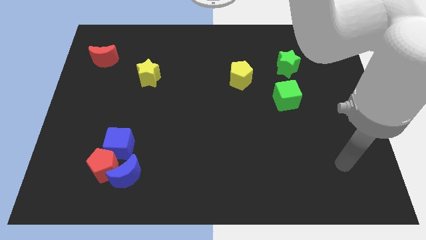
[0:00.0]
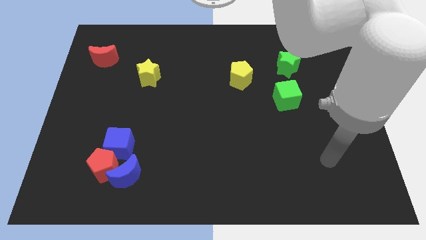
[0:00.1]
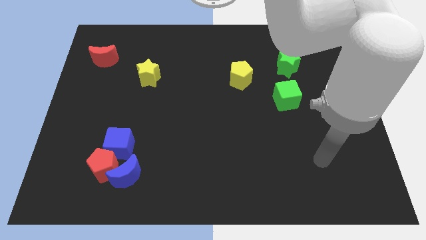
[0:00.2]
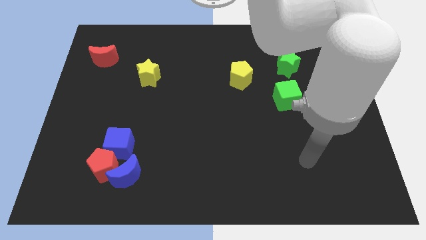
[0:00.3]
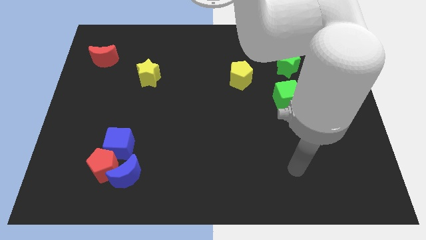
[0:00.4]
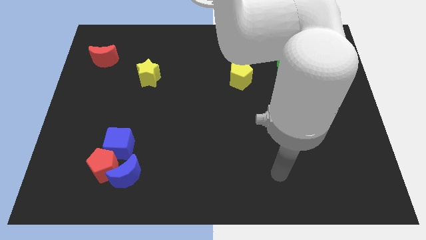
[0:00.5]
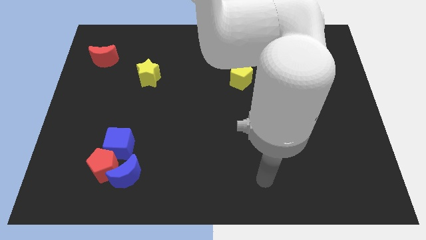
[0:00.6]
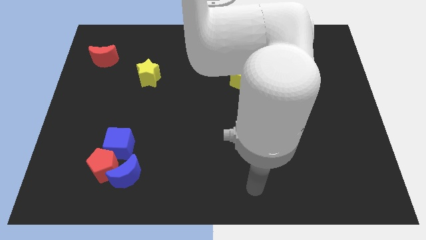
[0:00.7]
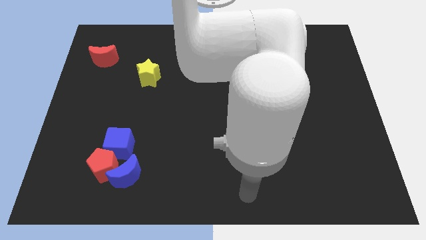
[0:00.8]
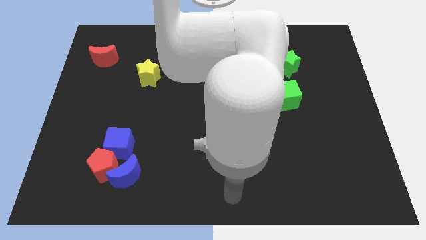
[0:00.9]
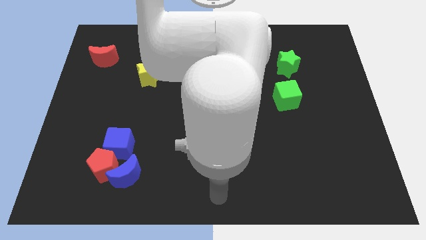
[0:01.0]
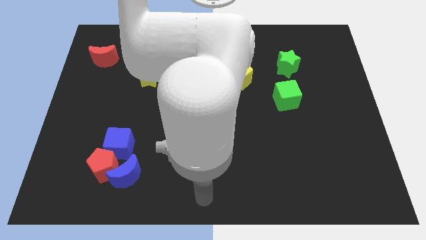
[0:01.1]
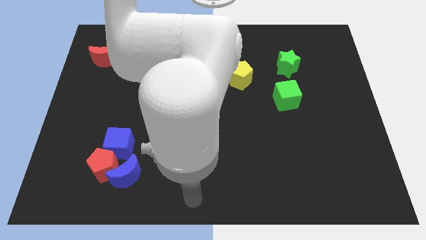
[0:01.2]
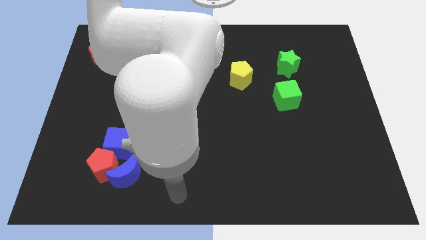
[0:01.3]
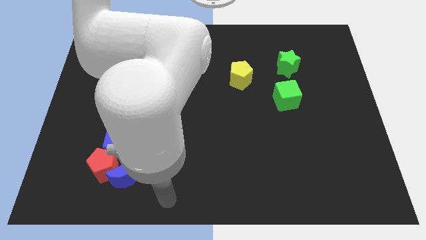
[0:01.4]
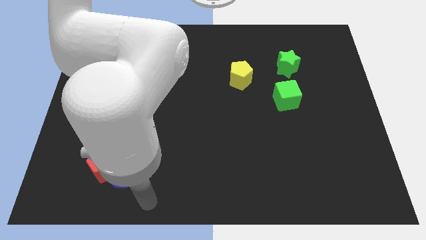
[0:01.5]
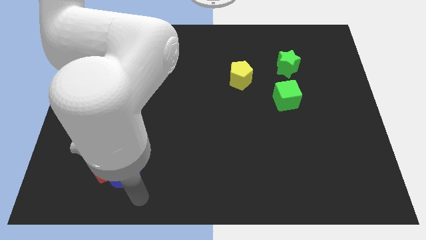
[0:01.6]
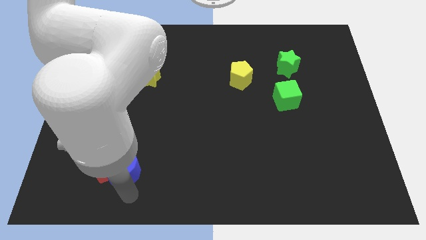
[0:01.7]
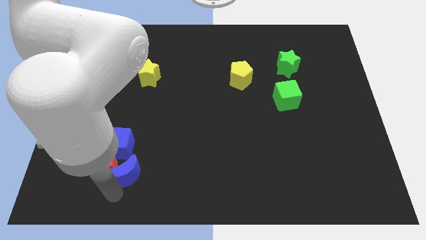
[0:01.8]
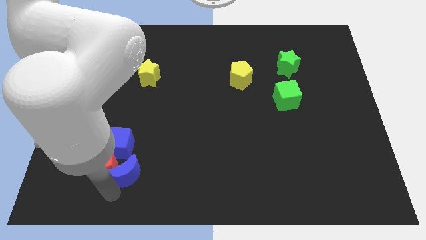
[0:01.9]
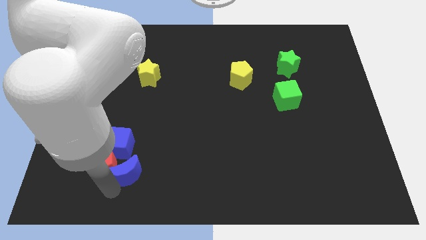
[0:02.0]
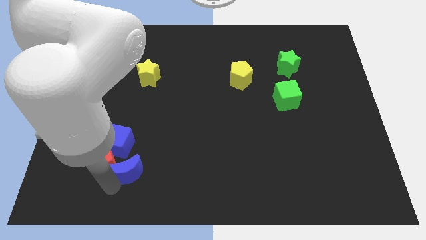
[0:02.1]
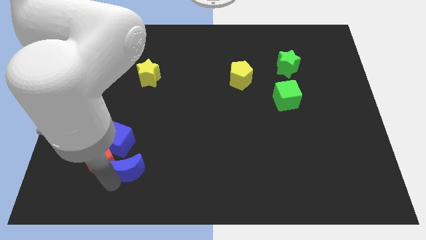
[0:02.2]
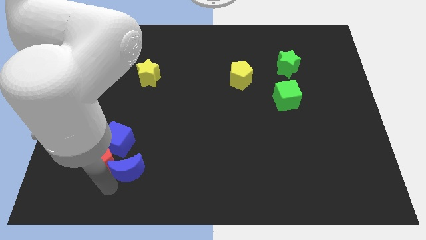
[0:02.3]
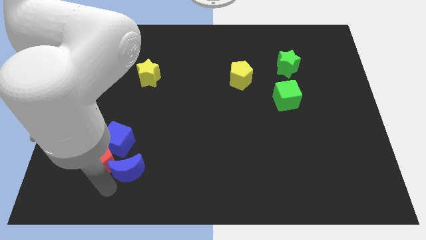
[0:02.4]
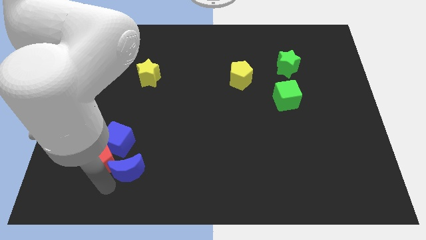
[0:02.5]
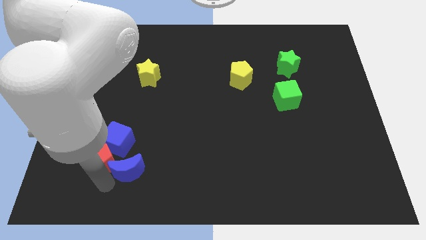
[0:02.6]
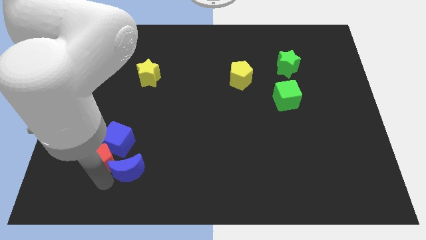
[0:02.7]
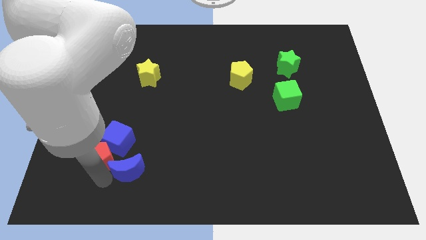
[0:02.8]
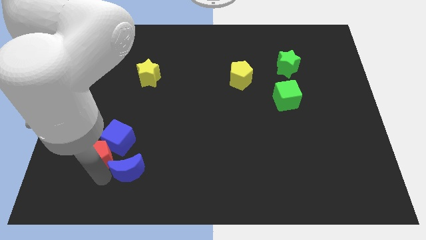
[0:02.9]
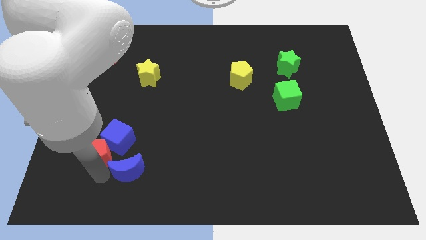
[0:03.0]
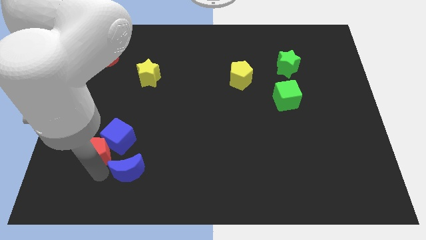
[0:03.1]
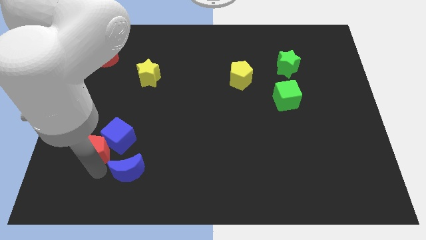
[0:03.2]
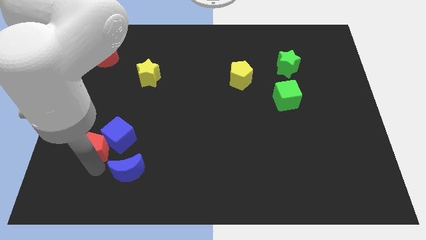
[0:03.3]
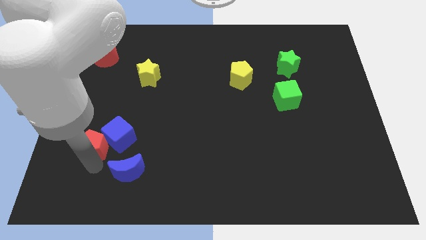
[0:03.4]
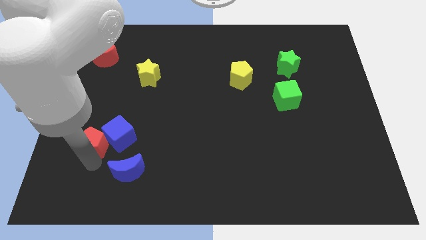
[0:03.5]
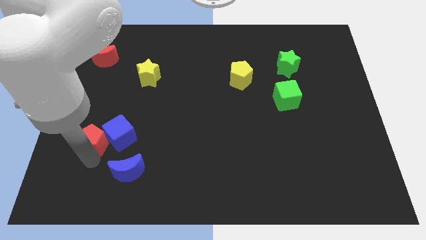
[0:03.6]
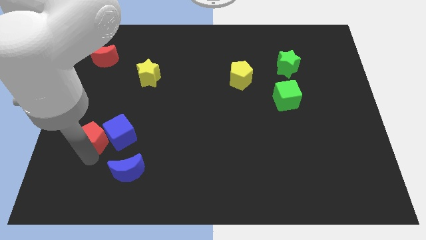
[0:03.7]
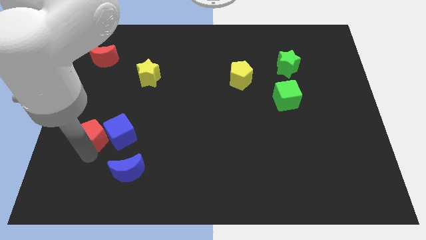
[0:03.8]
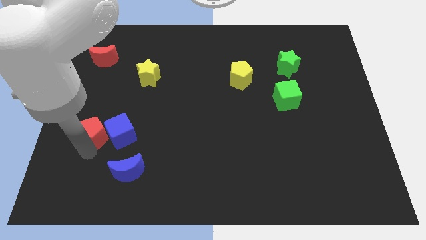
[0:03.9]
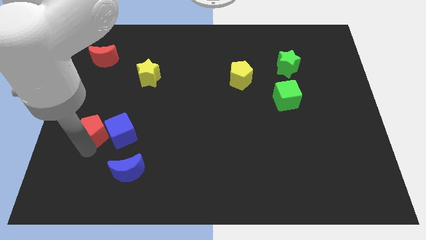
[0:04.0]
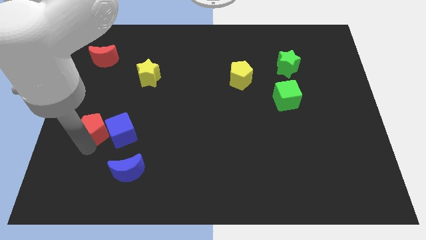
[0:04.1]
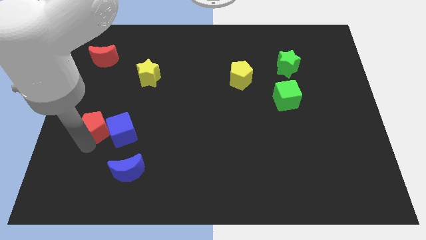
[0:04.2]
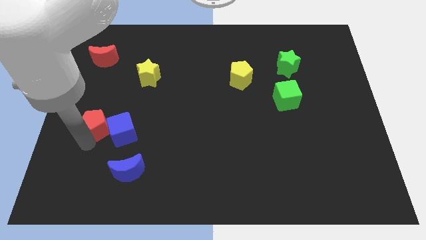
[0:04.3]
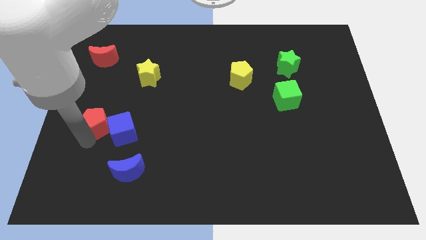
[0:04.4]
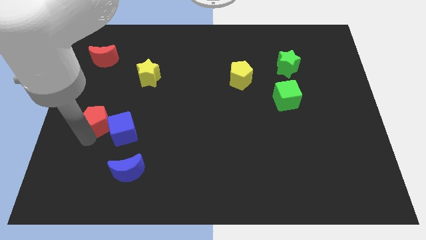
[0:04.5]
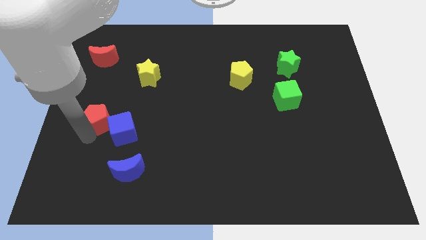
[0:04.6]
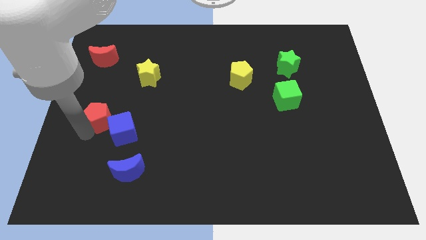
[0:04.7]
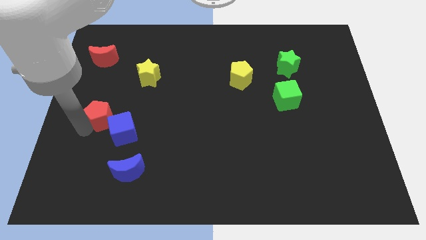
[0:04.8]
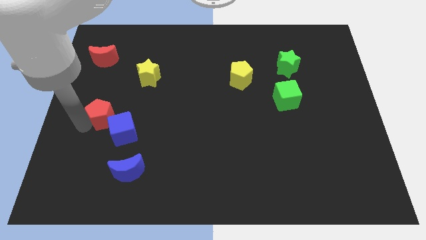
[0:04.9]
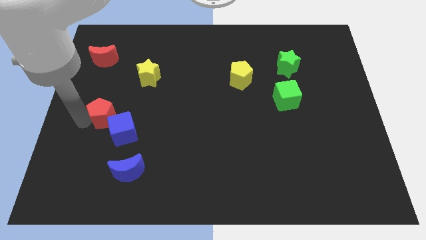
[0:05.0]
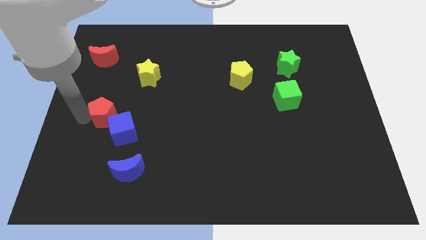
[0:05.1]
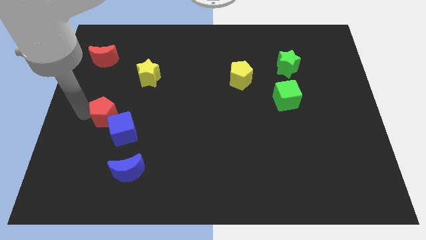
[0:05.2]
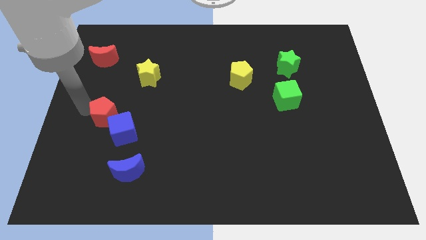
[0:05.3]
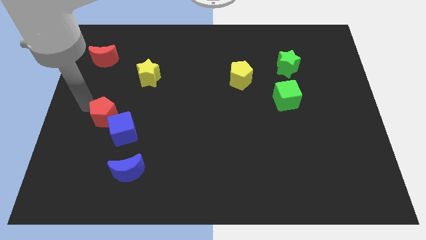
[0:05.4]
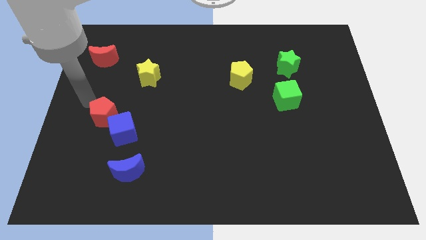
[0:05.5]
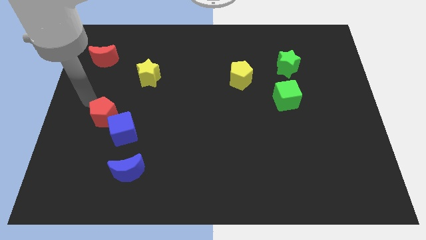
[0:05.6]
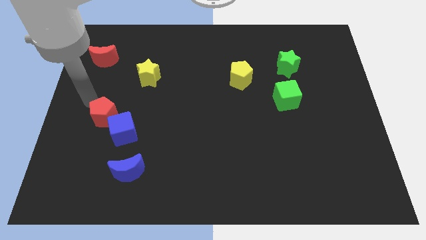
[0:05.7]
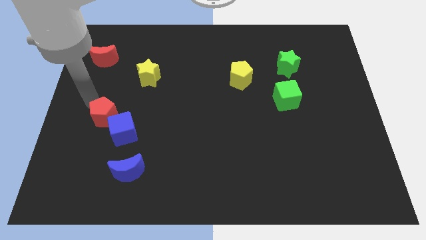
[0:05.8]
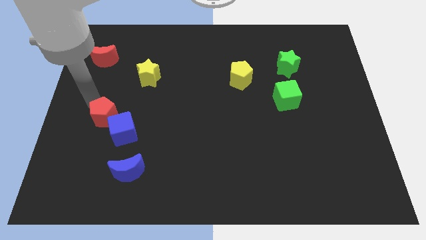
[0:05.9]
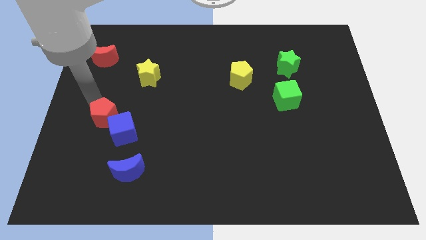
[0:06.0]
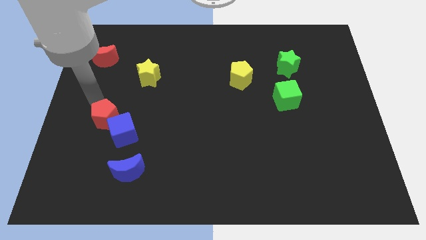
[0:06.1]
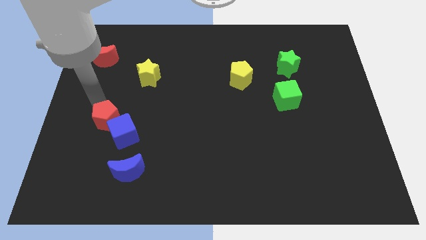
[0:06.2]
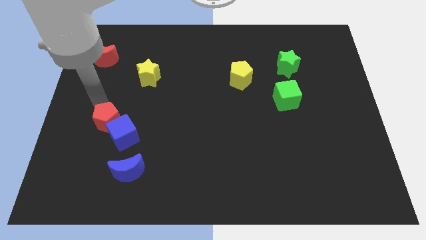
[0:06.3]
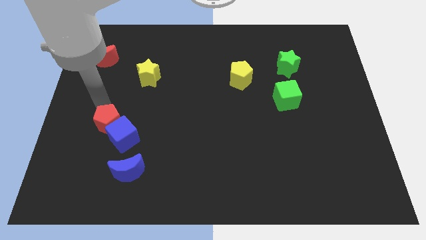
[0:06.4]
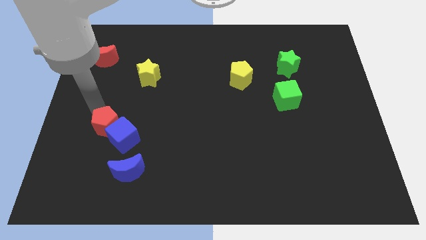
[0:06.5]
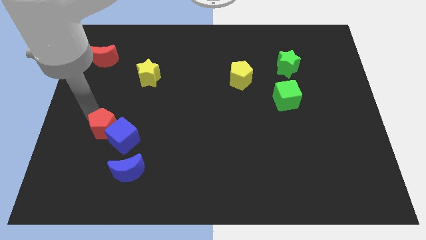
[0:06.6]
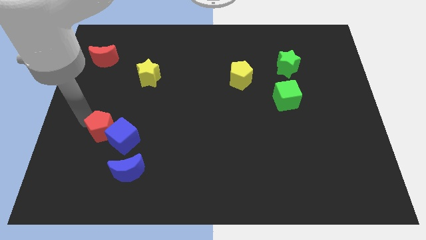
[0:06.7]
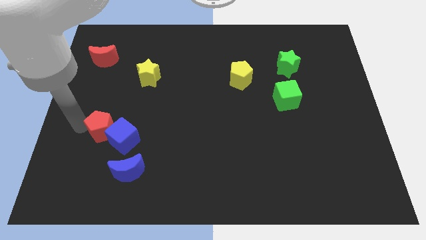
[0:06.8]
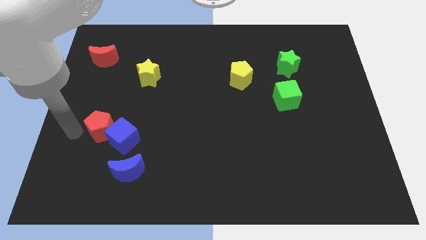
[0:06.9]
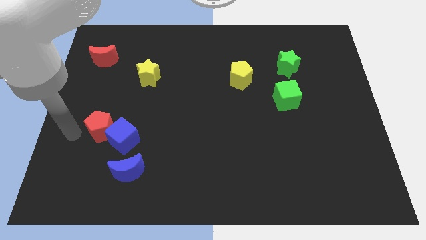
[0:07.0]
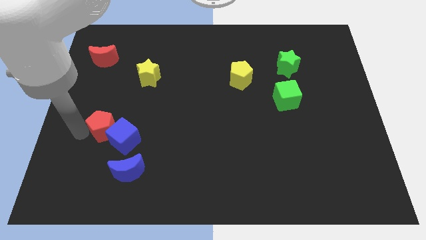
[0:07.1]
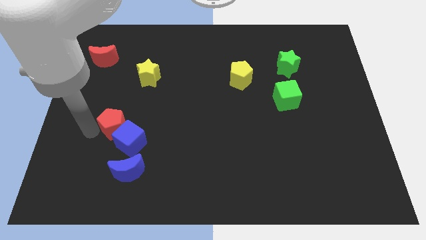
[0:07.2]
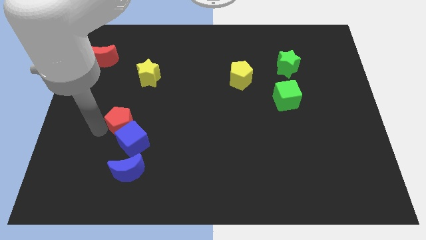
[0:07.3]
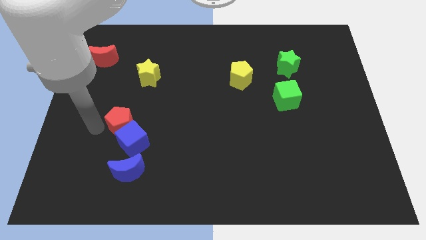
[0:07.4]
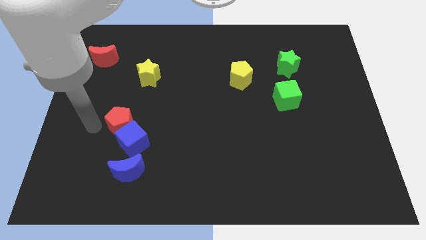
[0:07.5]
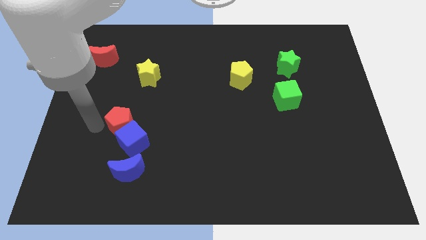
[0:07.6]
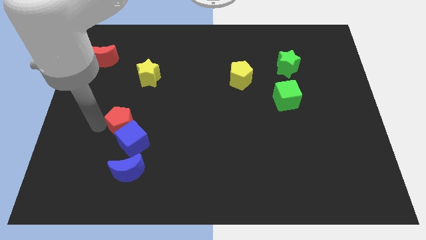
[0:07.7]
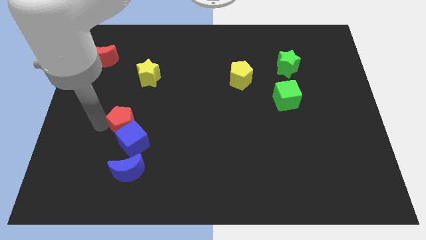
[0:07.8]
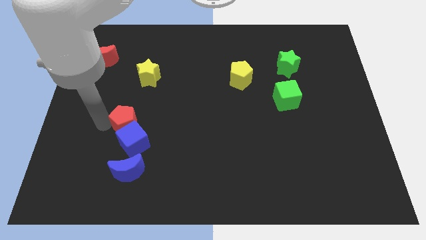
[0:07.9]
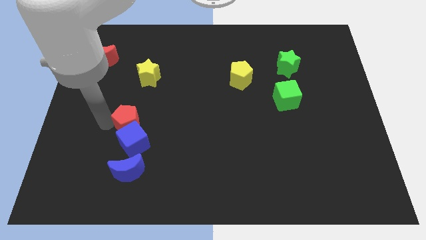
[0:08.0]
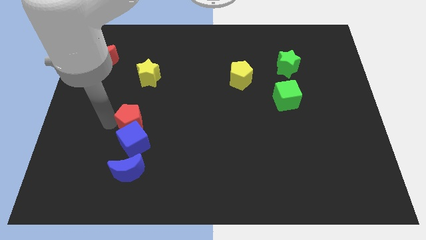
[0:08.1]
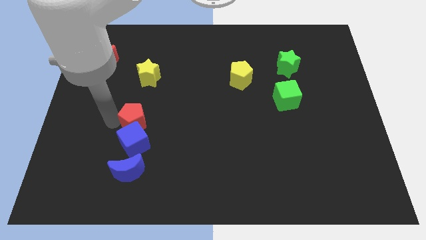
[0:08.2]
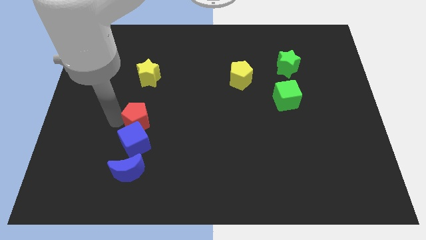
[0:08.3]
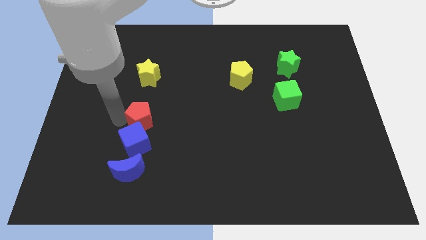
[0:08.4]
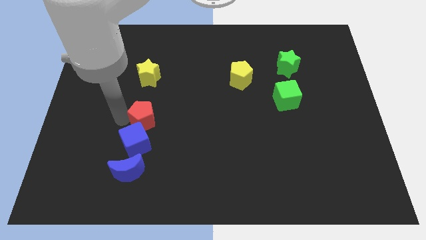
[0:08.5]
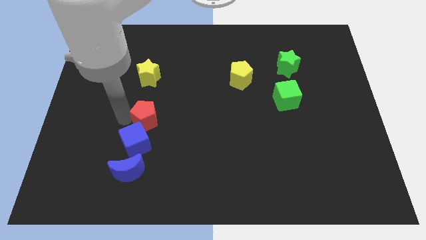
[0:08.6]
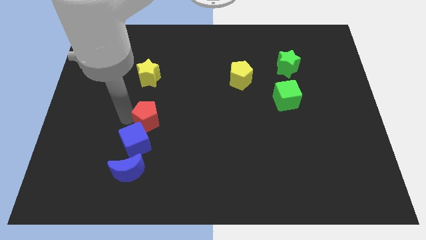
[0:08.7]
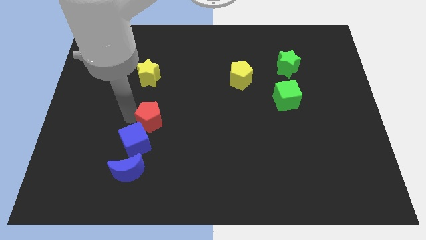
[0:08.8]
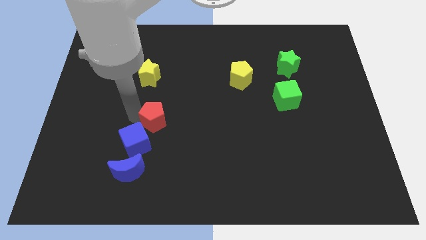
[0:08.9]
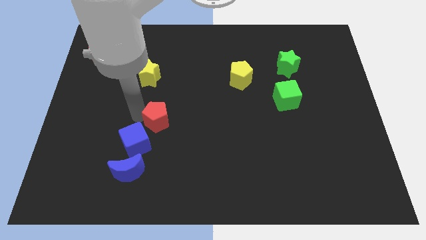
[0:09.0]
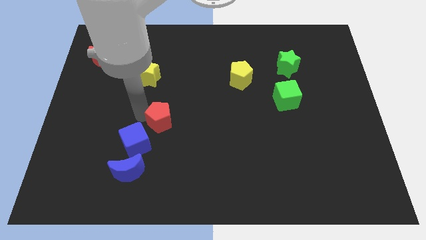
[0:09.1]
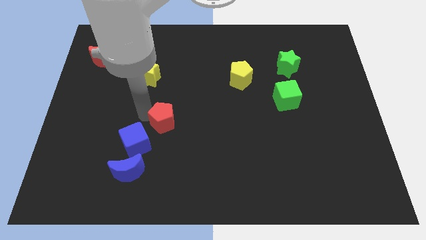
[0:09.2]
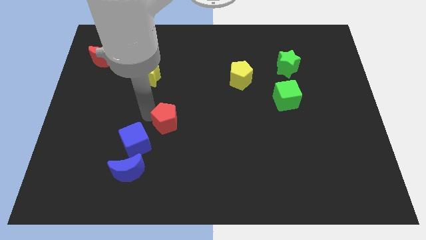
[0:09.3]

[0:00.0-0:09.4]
put the red pentagon to the center of the board
